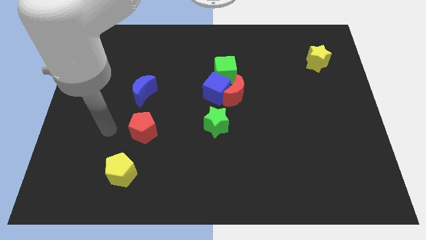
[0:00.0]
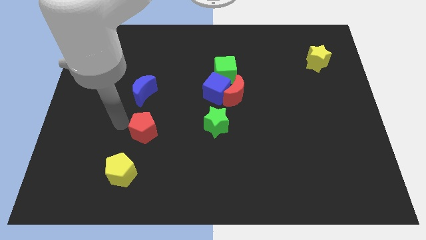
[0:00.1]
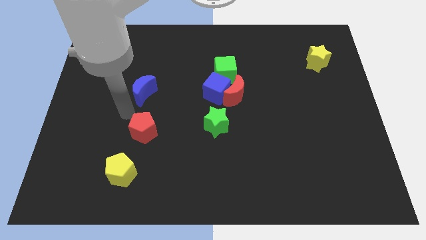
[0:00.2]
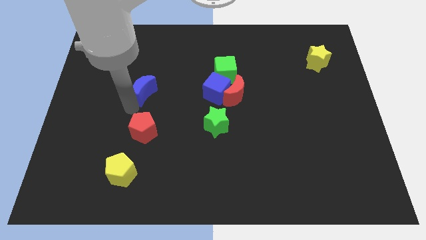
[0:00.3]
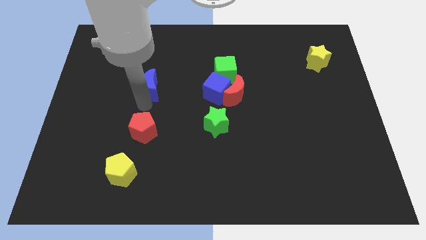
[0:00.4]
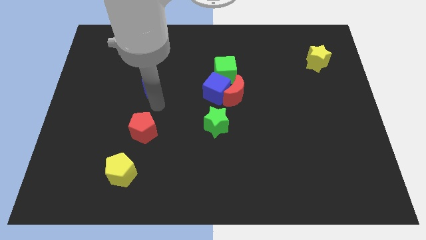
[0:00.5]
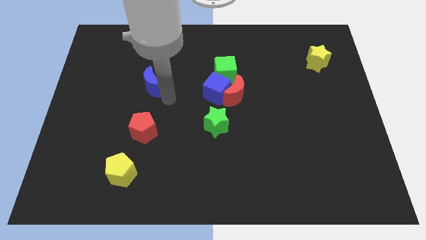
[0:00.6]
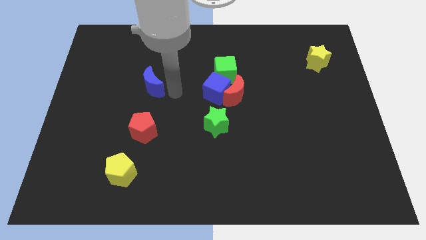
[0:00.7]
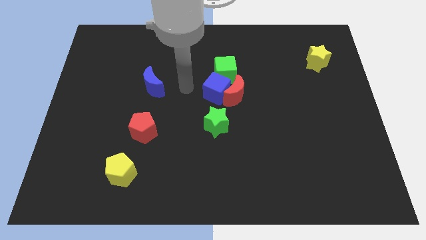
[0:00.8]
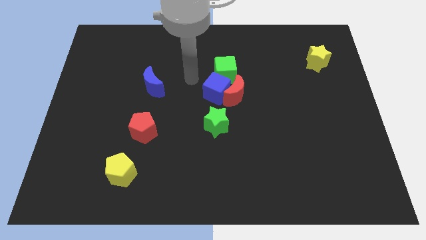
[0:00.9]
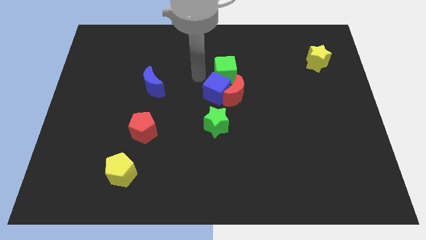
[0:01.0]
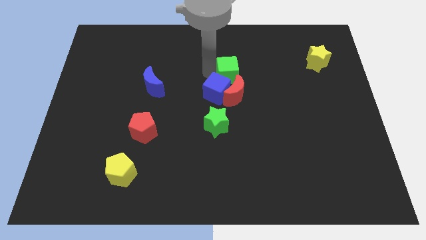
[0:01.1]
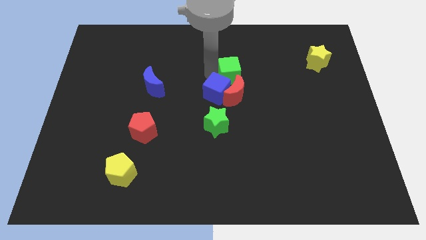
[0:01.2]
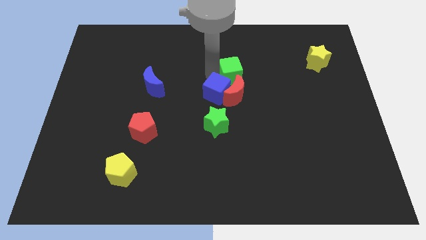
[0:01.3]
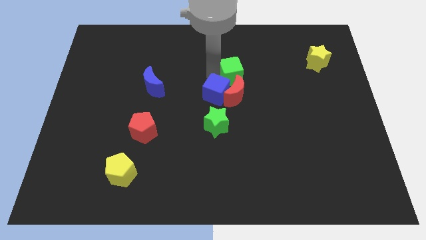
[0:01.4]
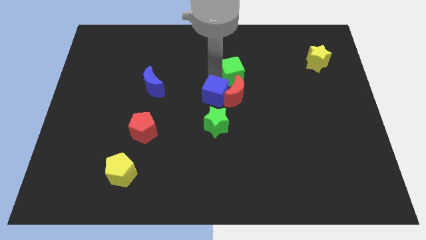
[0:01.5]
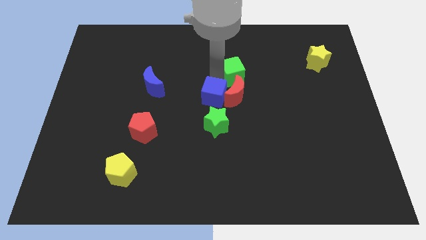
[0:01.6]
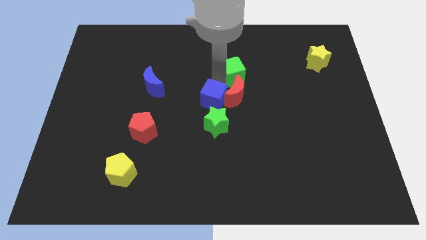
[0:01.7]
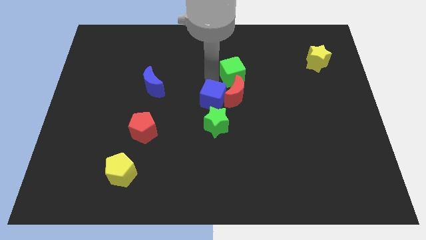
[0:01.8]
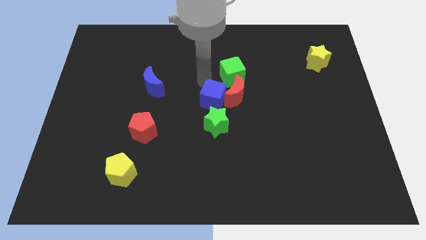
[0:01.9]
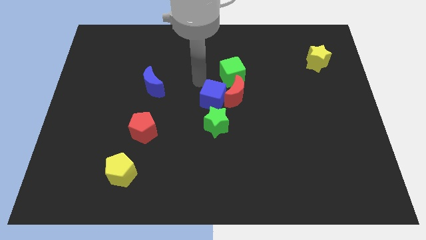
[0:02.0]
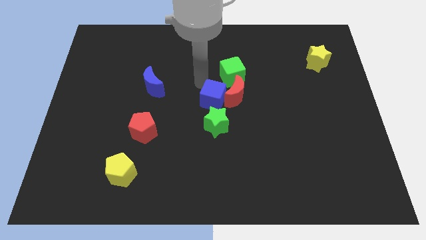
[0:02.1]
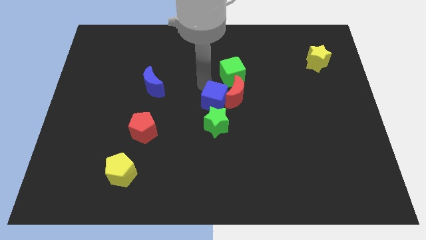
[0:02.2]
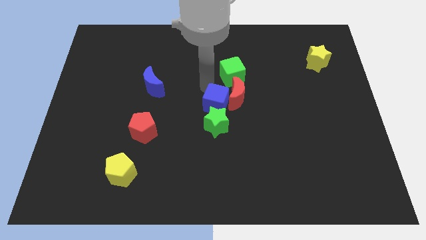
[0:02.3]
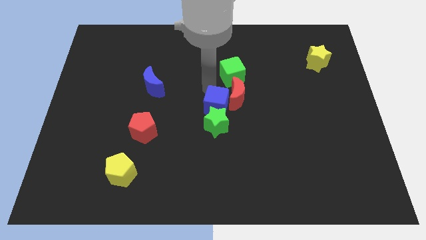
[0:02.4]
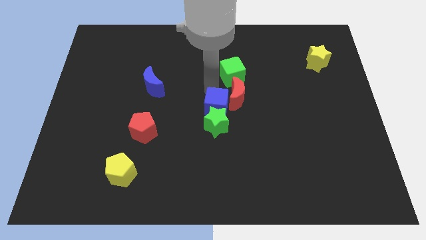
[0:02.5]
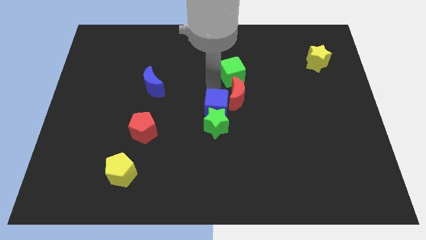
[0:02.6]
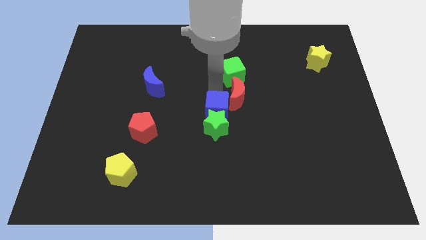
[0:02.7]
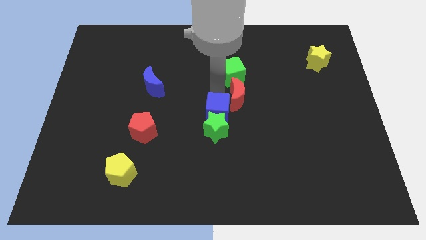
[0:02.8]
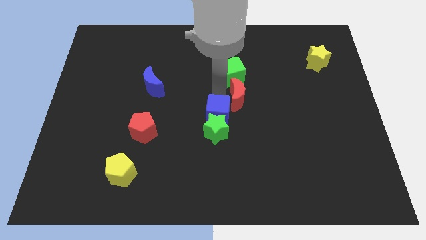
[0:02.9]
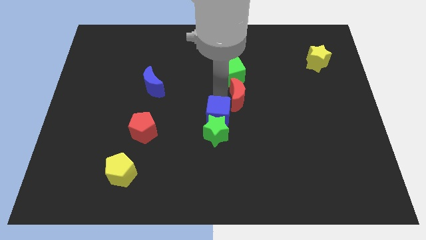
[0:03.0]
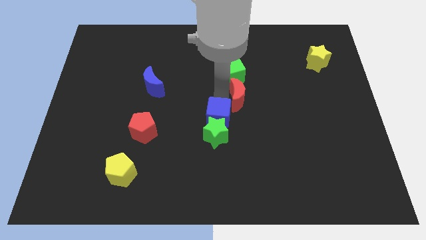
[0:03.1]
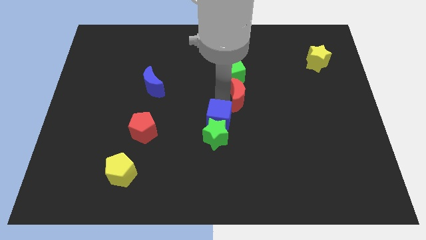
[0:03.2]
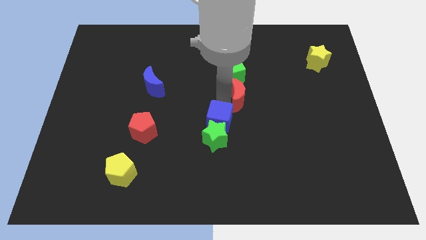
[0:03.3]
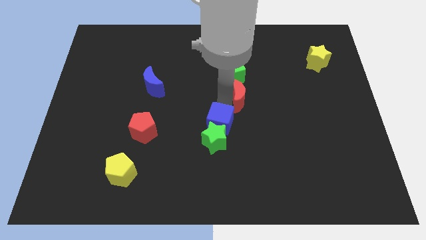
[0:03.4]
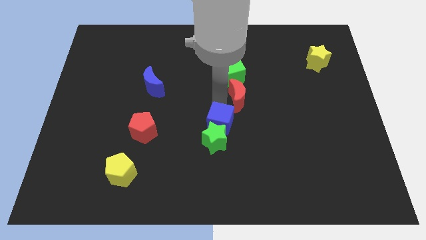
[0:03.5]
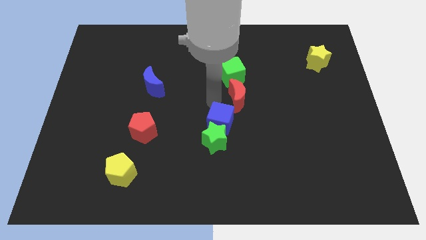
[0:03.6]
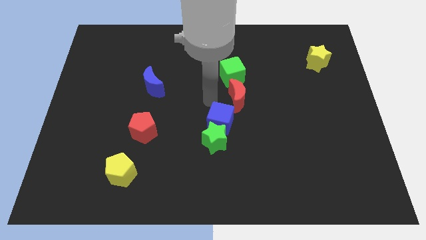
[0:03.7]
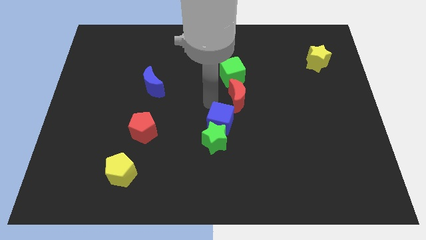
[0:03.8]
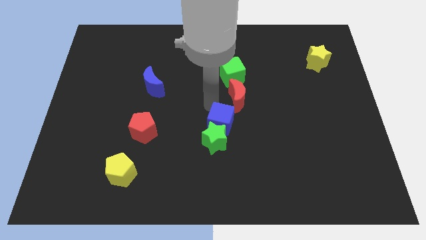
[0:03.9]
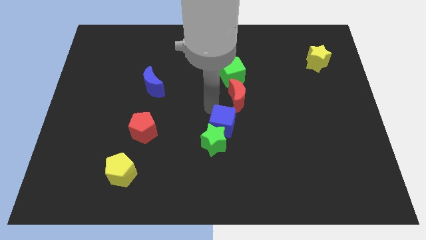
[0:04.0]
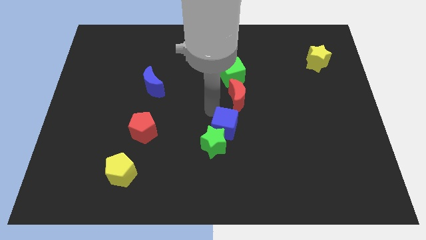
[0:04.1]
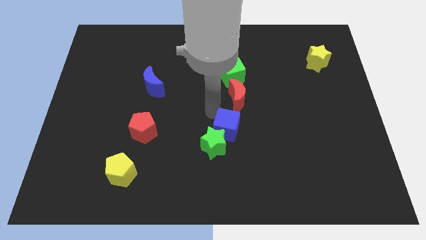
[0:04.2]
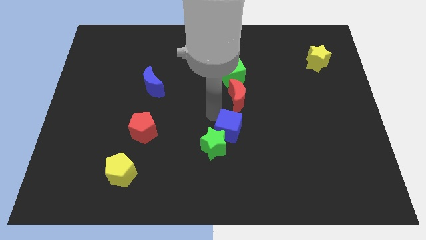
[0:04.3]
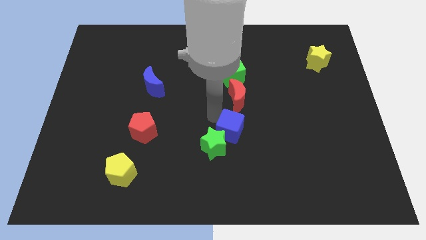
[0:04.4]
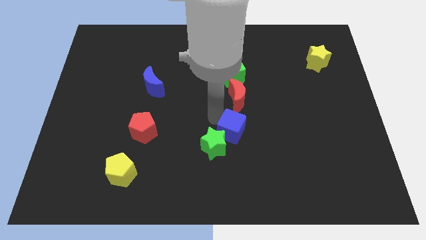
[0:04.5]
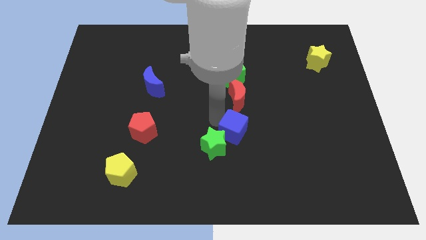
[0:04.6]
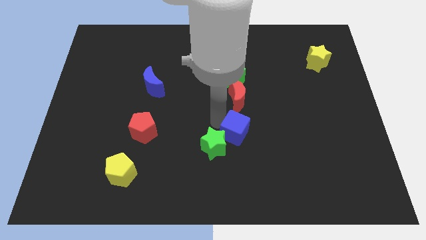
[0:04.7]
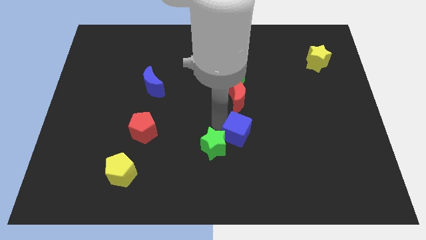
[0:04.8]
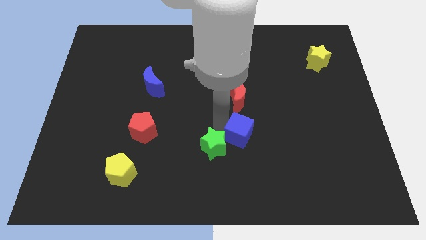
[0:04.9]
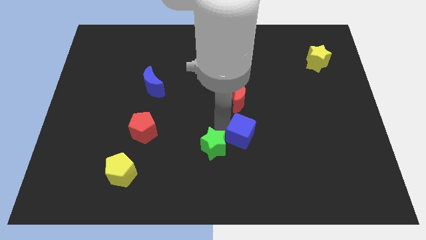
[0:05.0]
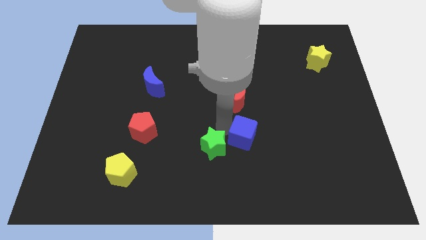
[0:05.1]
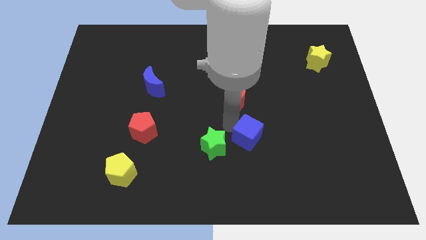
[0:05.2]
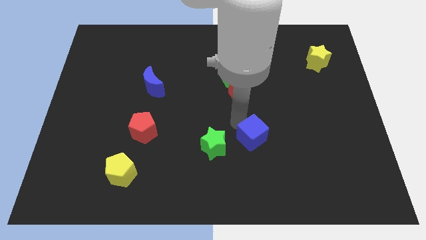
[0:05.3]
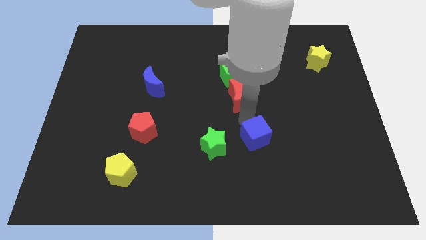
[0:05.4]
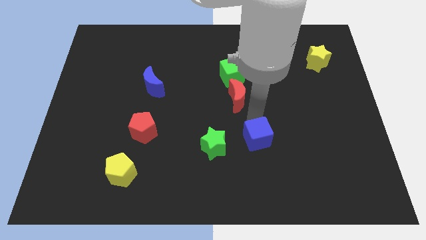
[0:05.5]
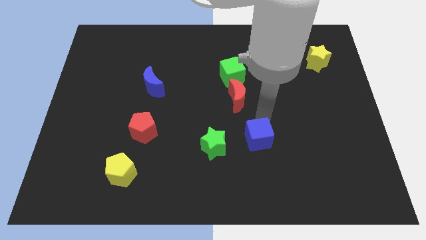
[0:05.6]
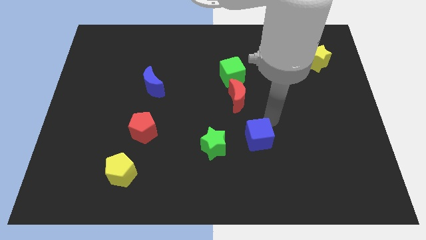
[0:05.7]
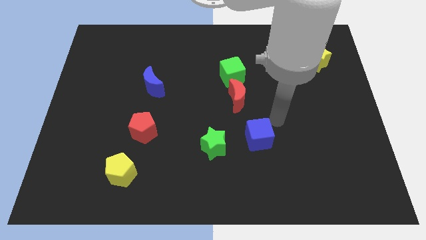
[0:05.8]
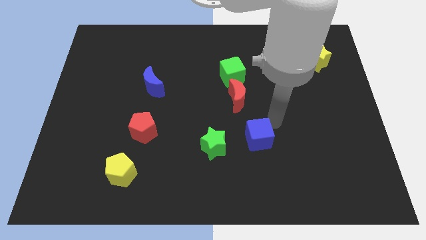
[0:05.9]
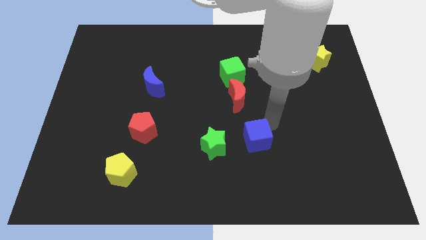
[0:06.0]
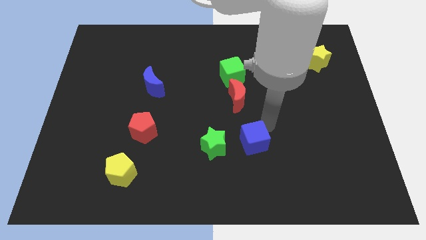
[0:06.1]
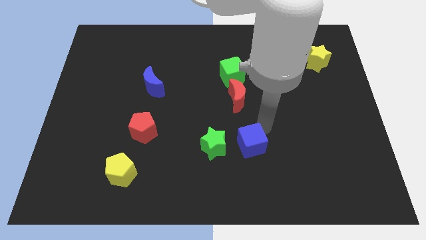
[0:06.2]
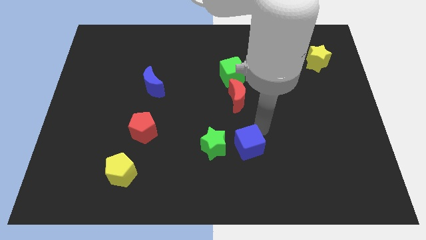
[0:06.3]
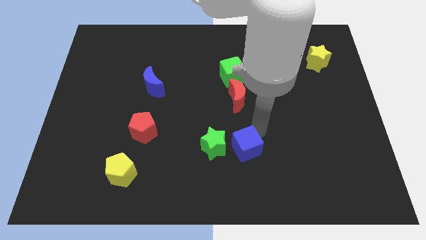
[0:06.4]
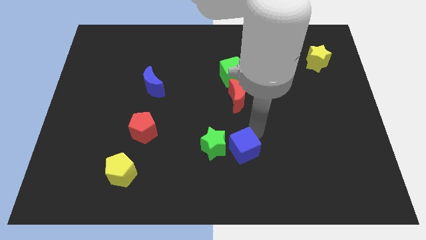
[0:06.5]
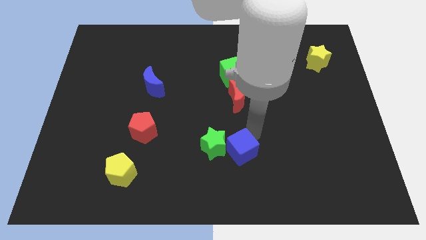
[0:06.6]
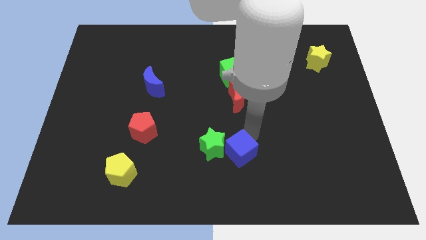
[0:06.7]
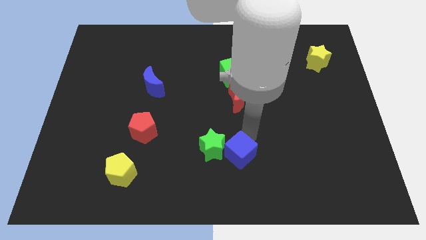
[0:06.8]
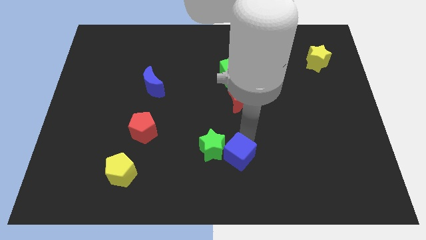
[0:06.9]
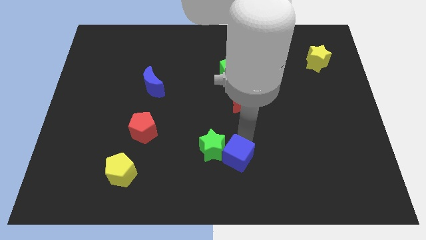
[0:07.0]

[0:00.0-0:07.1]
slide the blue cube to the bottom
